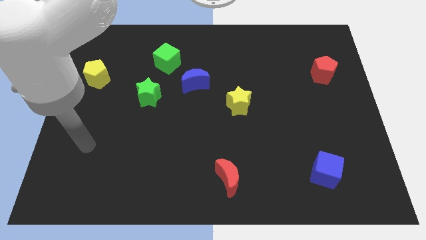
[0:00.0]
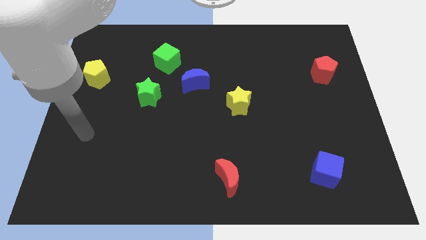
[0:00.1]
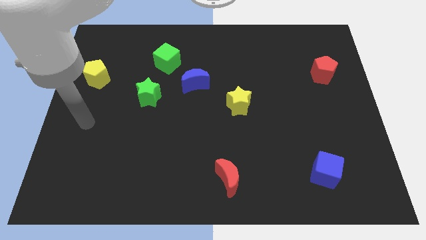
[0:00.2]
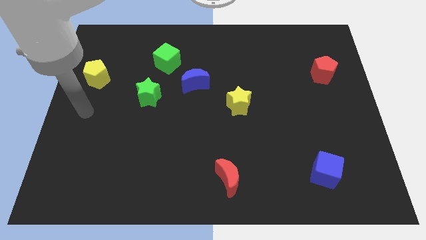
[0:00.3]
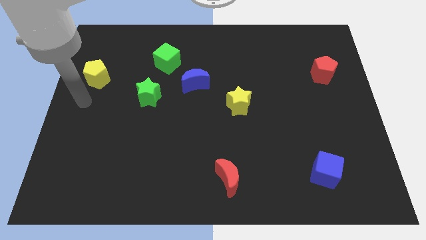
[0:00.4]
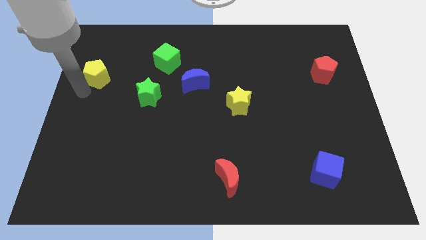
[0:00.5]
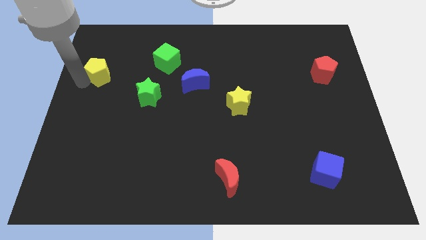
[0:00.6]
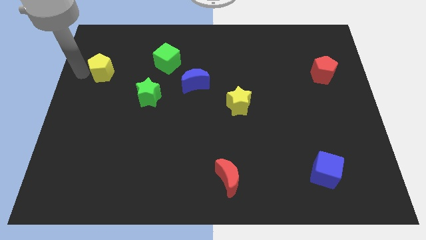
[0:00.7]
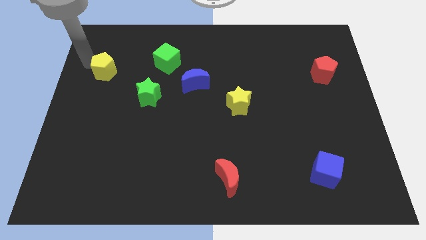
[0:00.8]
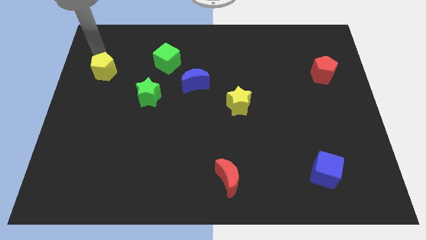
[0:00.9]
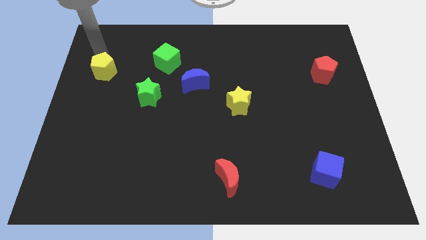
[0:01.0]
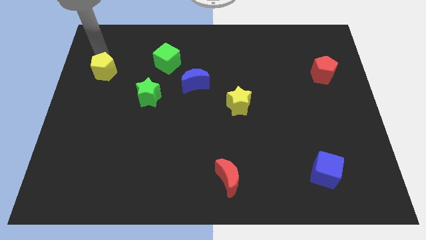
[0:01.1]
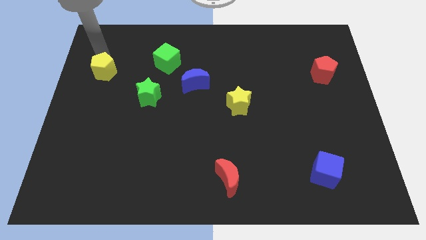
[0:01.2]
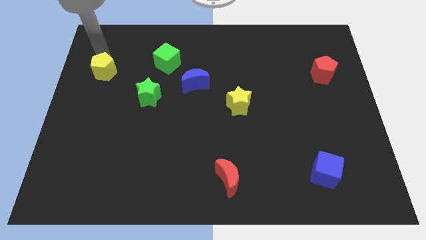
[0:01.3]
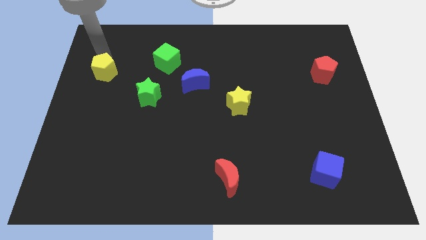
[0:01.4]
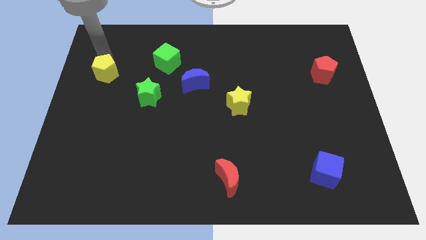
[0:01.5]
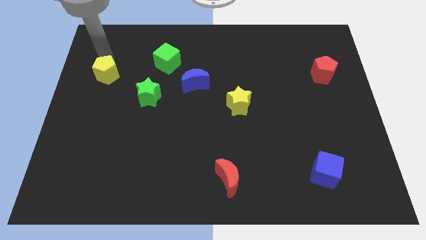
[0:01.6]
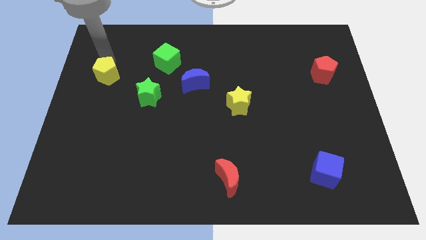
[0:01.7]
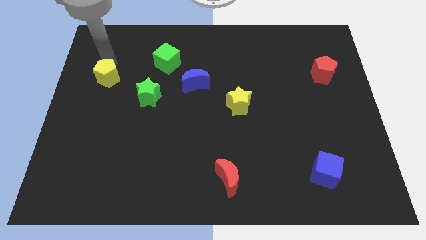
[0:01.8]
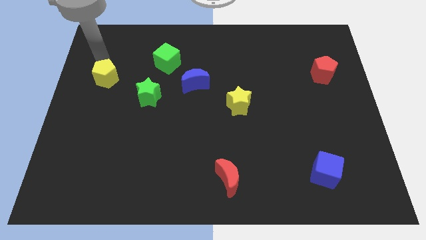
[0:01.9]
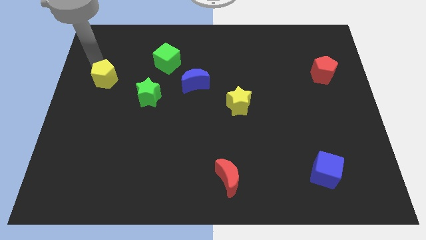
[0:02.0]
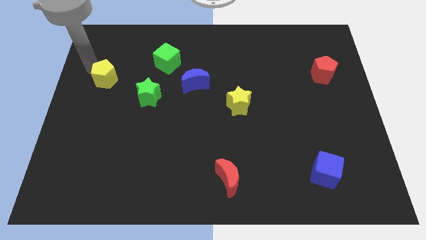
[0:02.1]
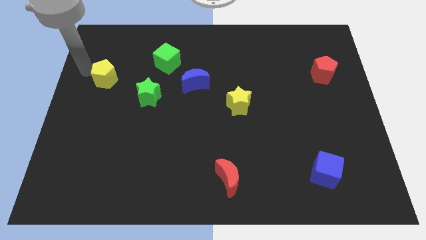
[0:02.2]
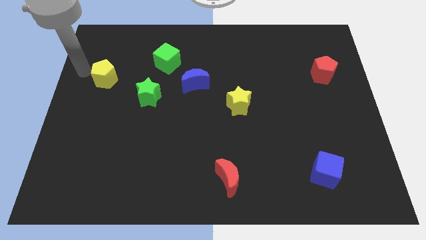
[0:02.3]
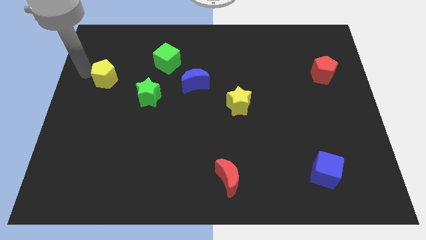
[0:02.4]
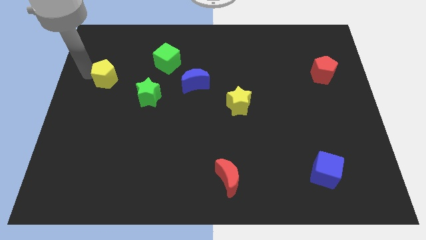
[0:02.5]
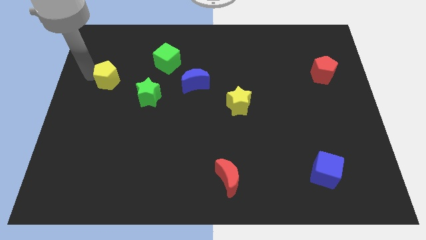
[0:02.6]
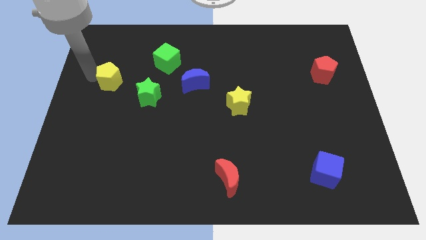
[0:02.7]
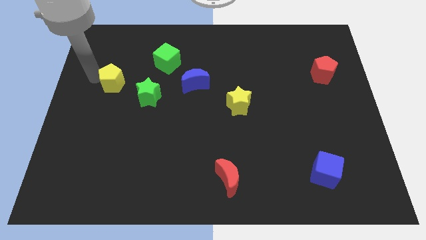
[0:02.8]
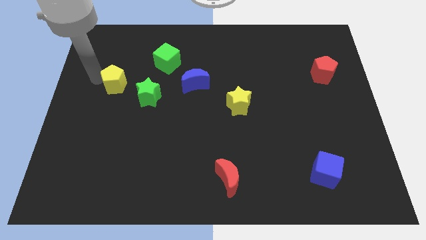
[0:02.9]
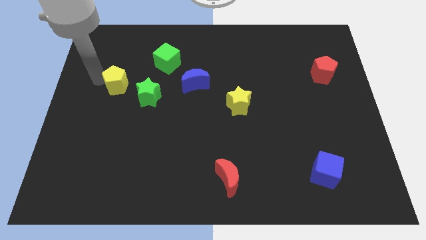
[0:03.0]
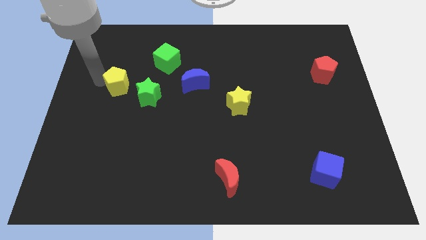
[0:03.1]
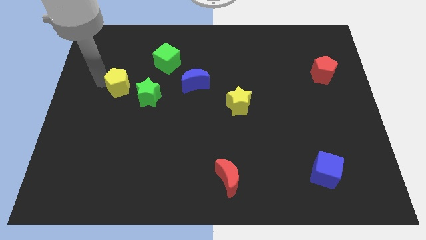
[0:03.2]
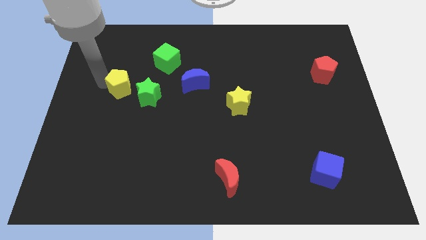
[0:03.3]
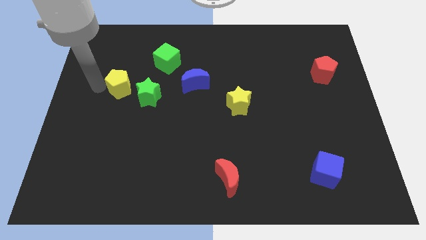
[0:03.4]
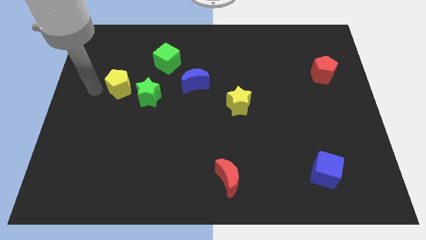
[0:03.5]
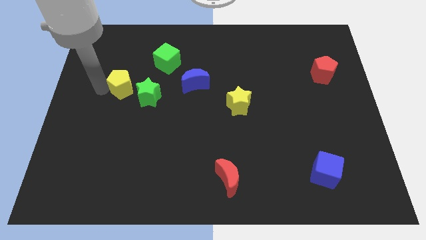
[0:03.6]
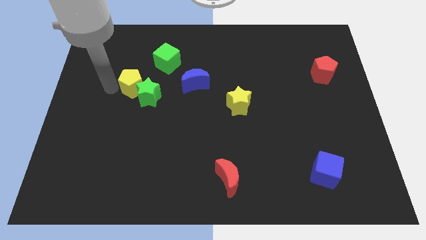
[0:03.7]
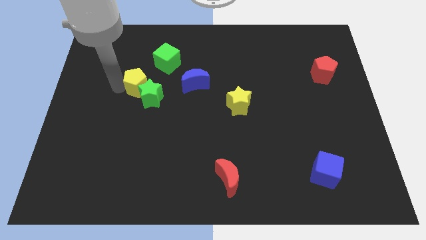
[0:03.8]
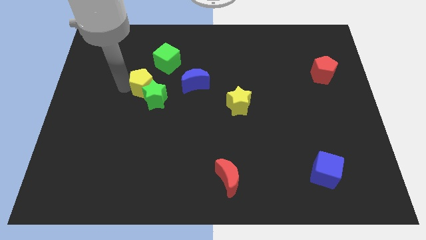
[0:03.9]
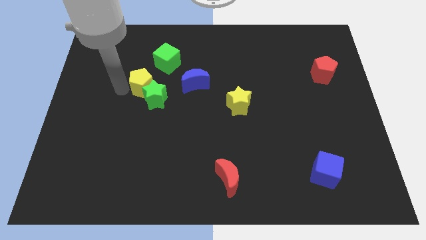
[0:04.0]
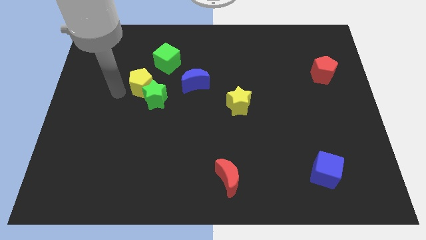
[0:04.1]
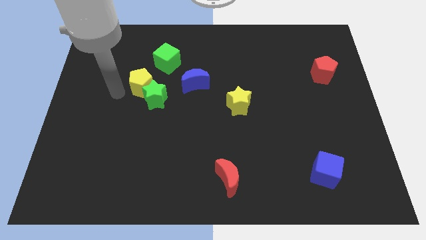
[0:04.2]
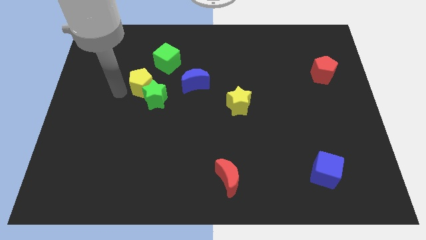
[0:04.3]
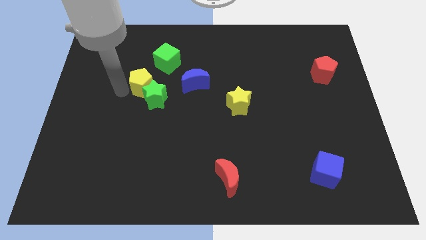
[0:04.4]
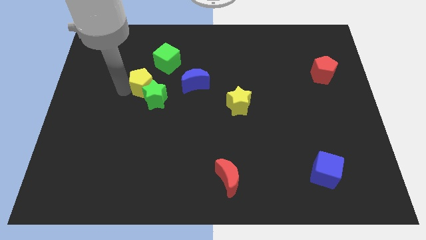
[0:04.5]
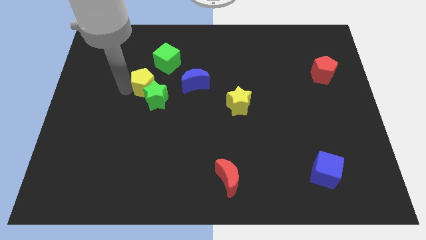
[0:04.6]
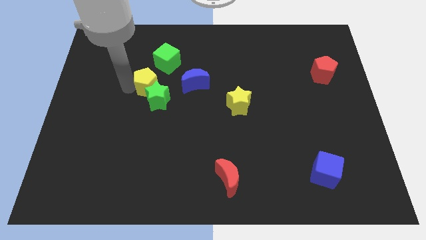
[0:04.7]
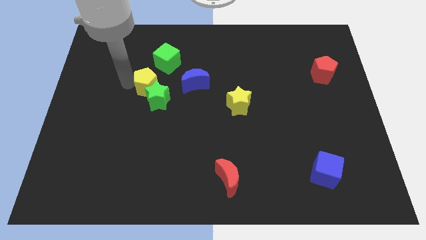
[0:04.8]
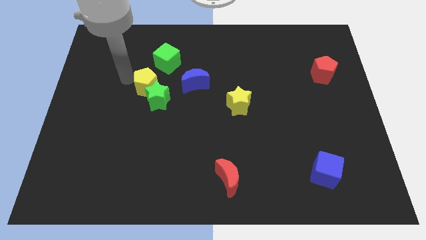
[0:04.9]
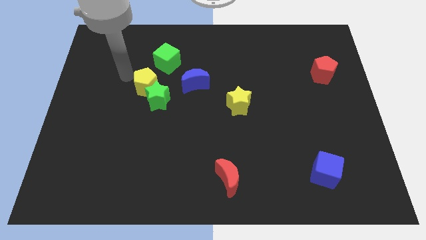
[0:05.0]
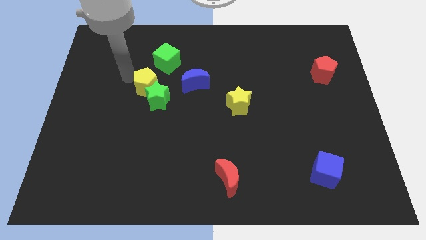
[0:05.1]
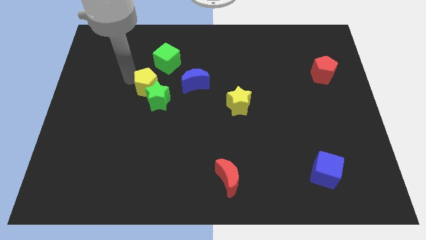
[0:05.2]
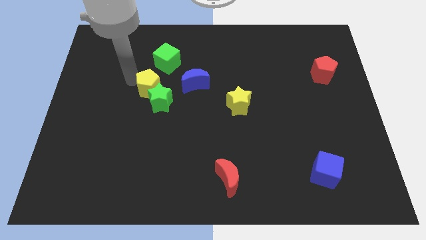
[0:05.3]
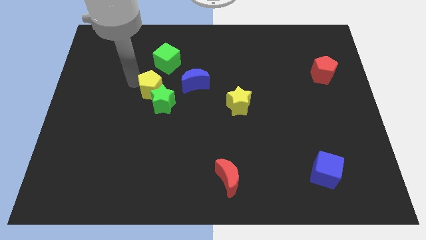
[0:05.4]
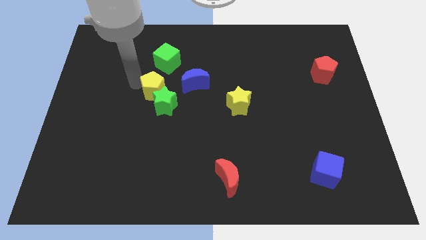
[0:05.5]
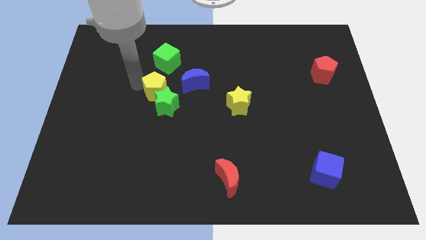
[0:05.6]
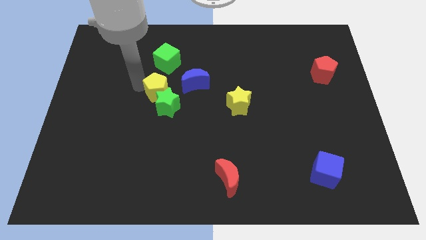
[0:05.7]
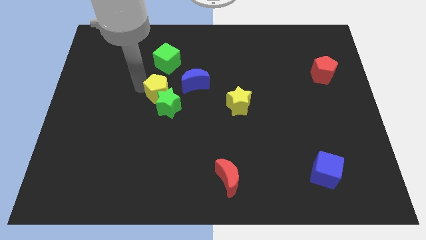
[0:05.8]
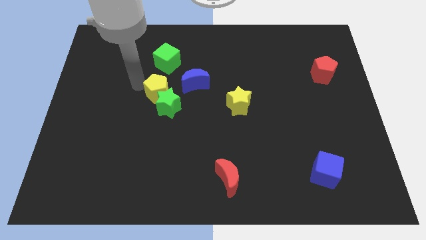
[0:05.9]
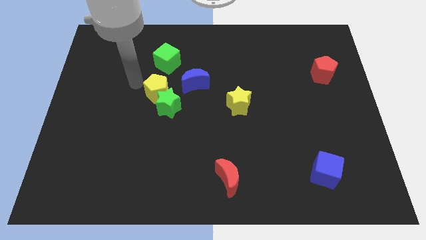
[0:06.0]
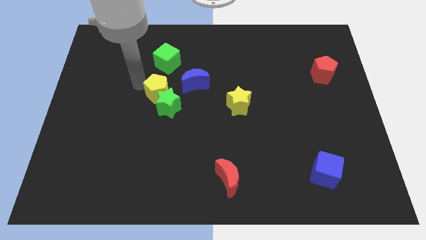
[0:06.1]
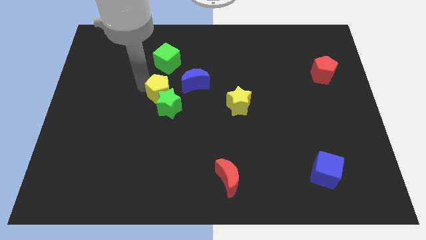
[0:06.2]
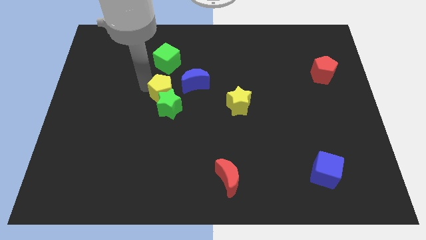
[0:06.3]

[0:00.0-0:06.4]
slide the yellow pentagon to the center
